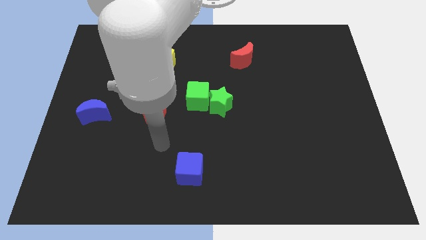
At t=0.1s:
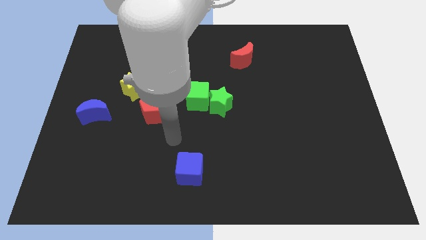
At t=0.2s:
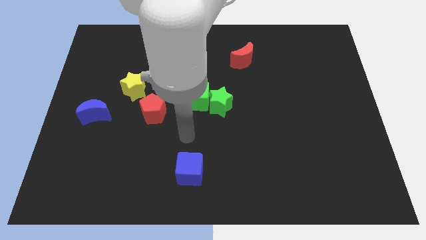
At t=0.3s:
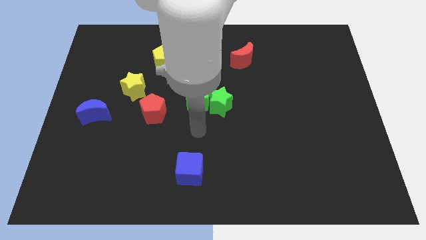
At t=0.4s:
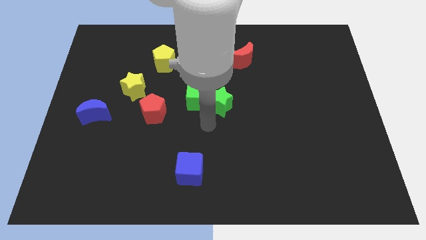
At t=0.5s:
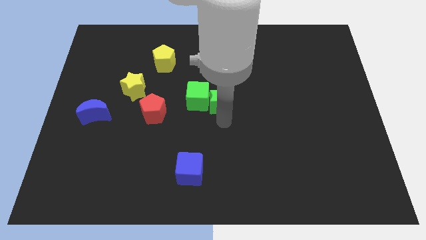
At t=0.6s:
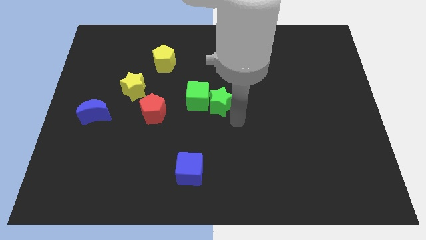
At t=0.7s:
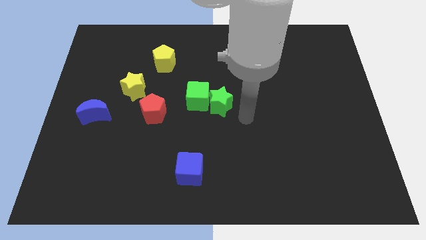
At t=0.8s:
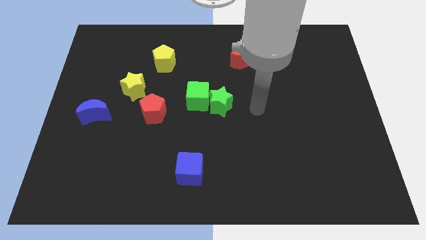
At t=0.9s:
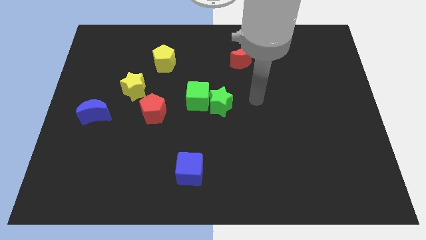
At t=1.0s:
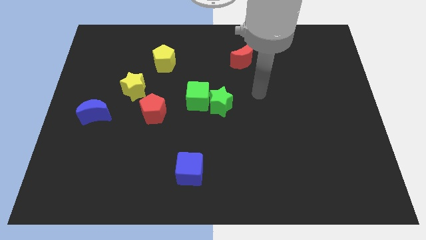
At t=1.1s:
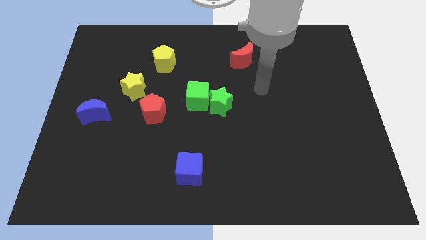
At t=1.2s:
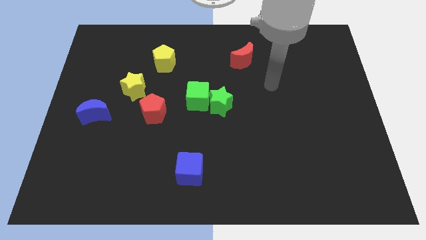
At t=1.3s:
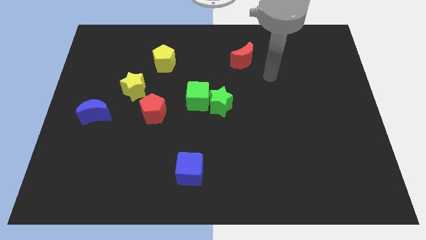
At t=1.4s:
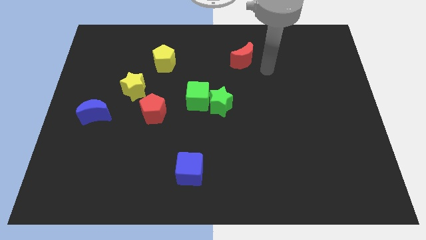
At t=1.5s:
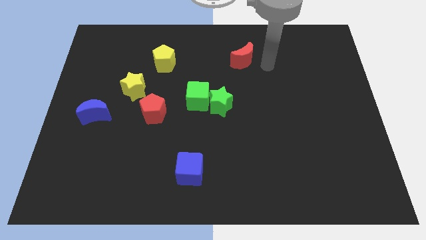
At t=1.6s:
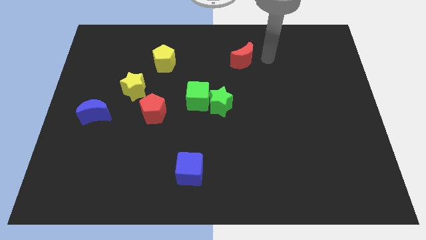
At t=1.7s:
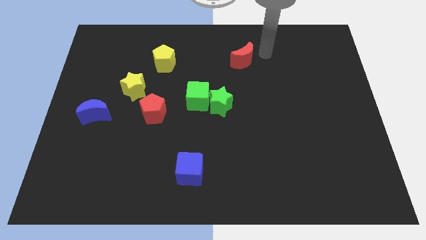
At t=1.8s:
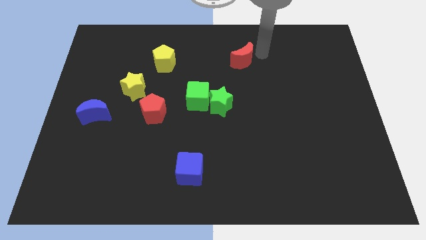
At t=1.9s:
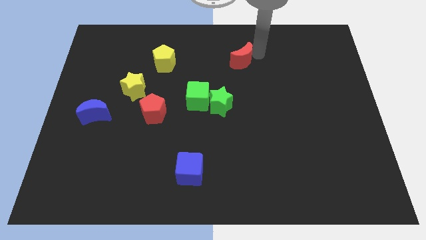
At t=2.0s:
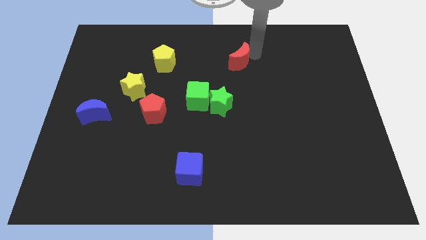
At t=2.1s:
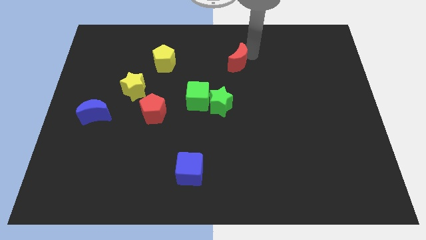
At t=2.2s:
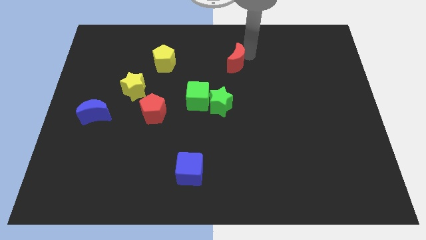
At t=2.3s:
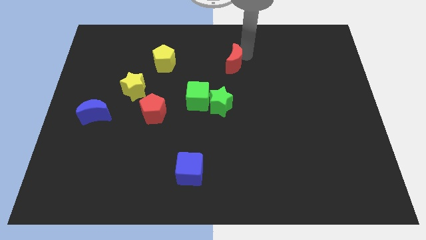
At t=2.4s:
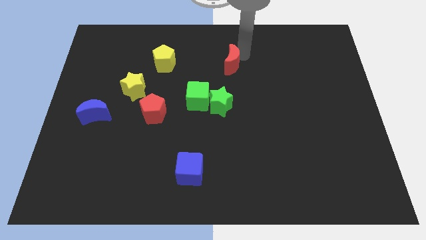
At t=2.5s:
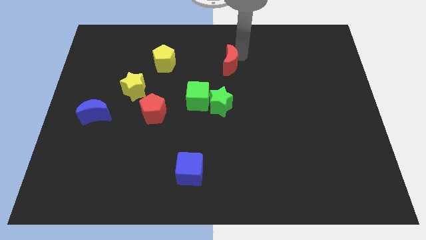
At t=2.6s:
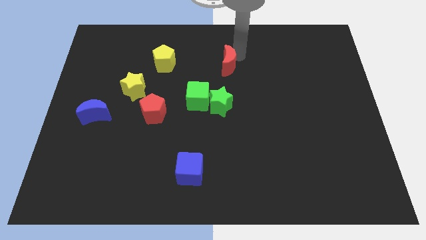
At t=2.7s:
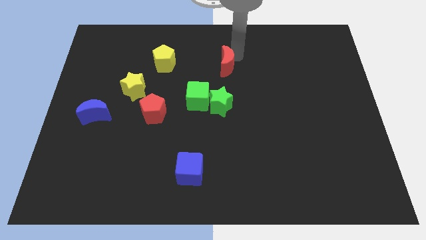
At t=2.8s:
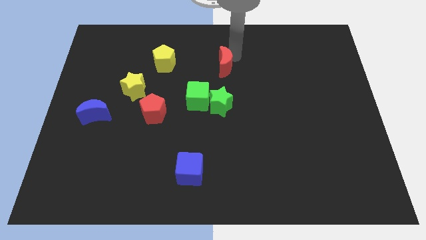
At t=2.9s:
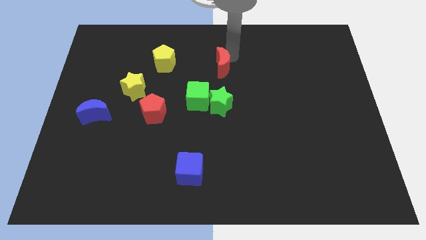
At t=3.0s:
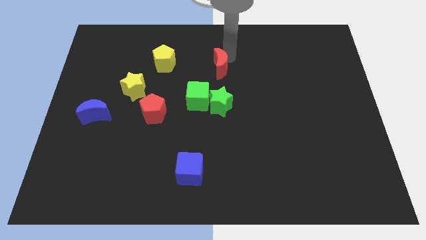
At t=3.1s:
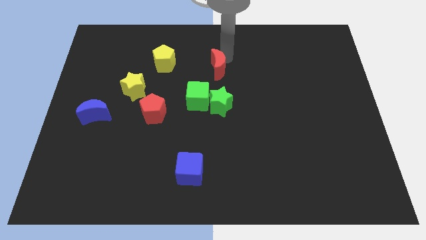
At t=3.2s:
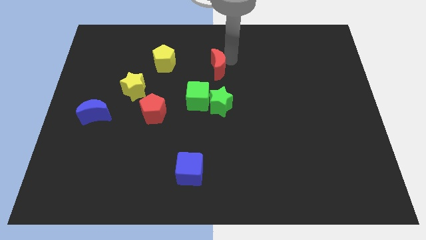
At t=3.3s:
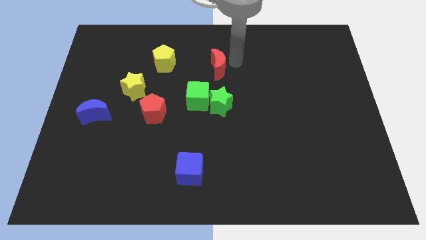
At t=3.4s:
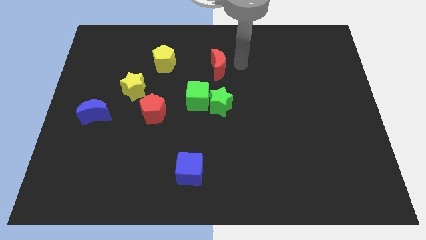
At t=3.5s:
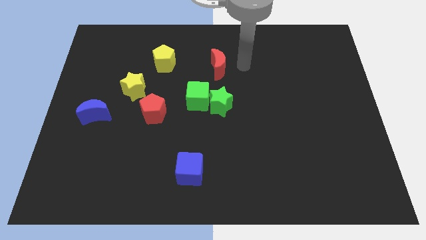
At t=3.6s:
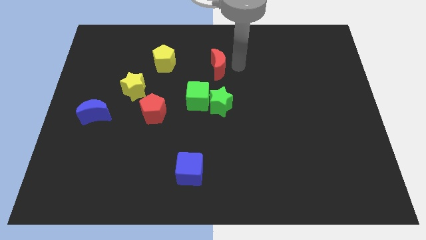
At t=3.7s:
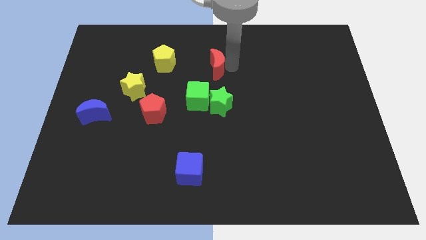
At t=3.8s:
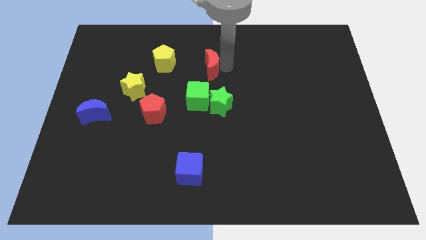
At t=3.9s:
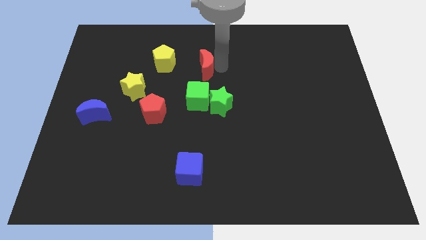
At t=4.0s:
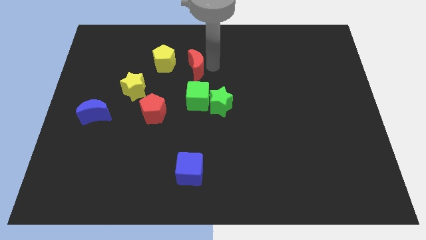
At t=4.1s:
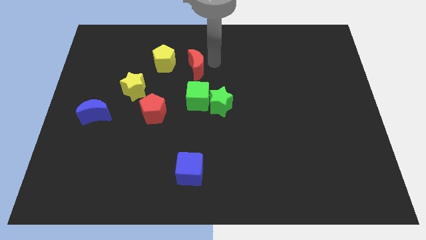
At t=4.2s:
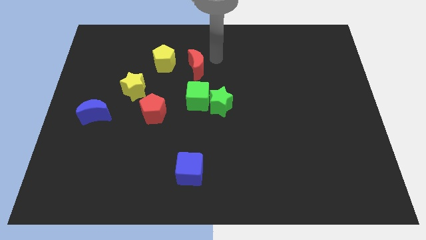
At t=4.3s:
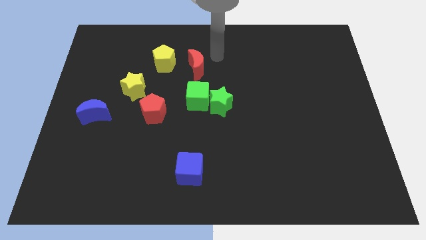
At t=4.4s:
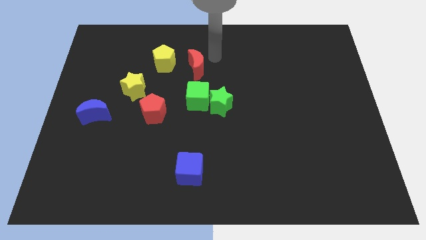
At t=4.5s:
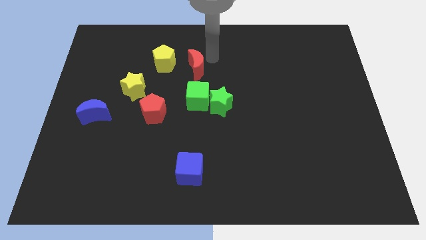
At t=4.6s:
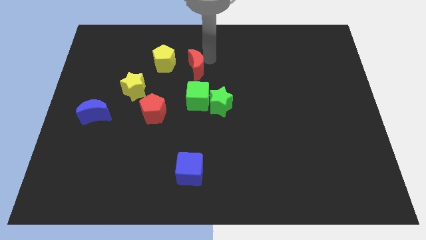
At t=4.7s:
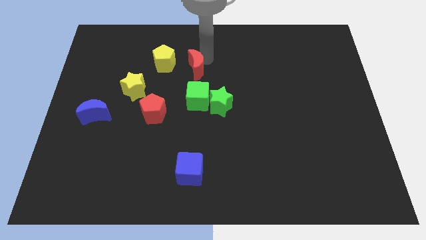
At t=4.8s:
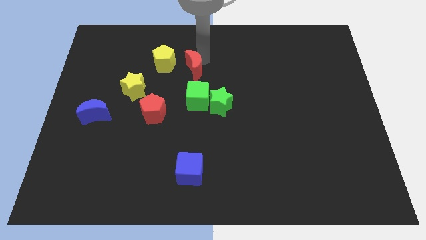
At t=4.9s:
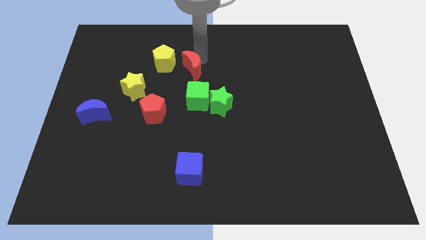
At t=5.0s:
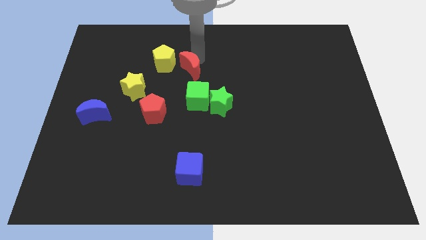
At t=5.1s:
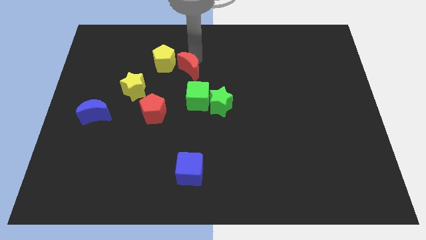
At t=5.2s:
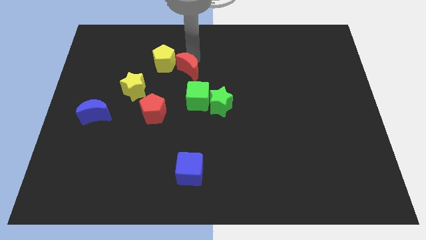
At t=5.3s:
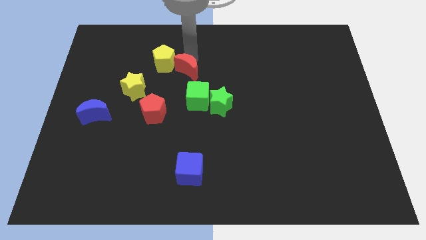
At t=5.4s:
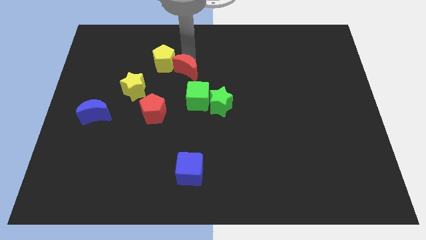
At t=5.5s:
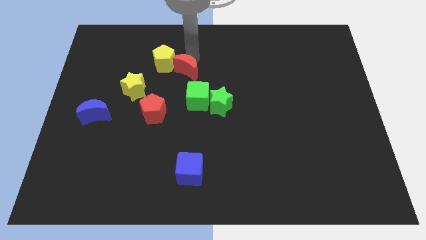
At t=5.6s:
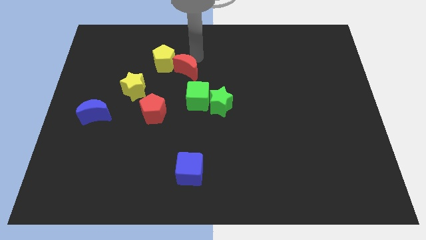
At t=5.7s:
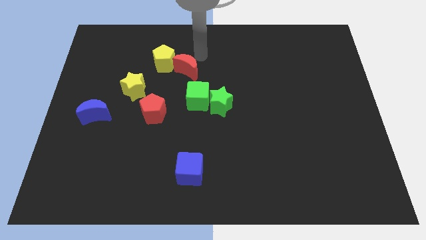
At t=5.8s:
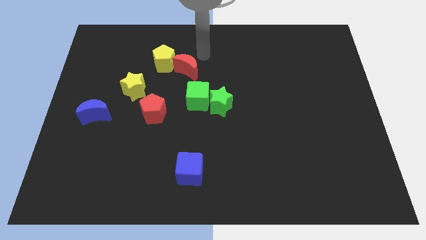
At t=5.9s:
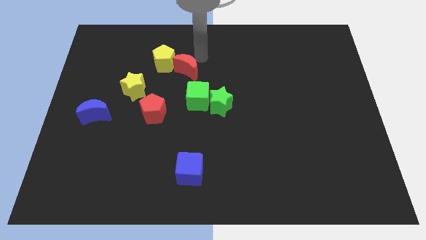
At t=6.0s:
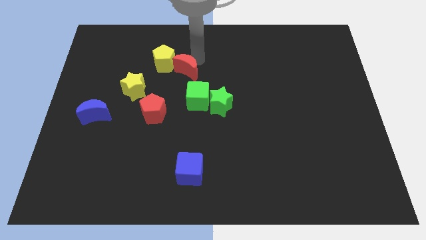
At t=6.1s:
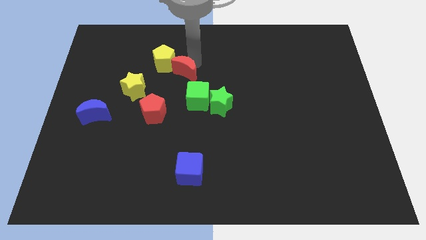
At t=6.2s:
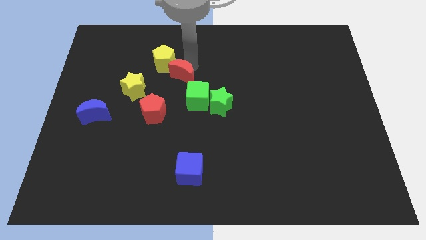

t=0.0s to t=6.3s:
push the red moon below the yellow pentagon
